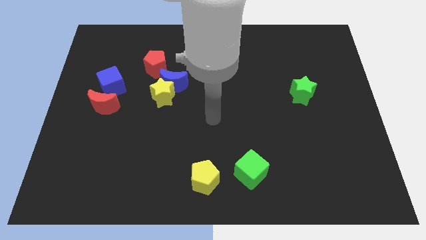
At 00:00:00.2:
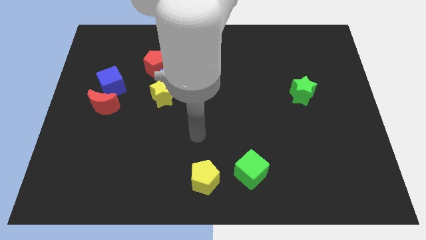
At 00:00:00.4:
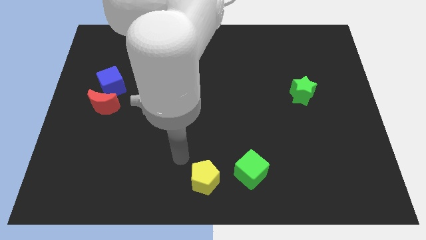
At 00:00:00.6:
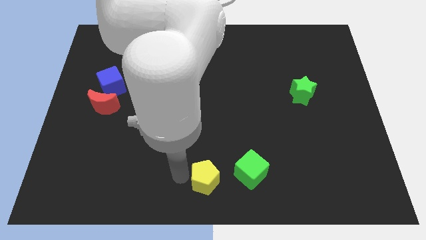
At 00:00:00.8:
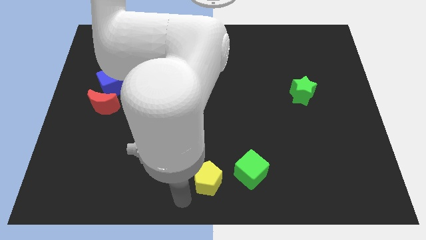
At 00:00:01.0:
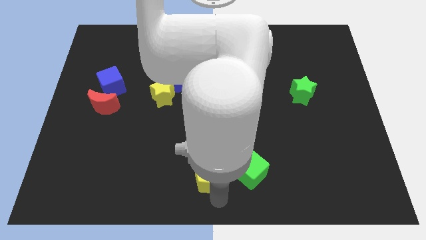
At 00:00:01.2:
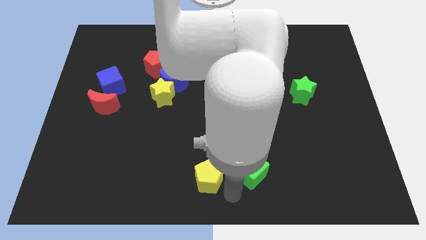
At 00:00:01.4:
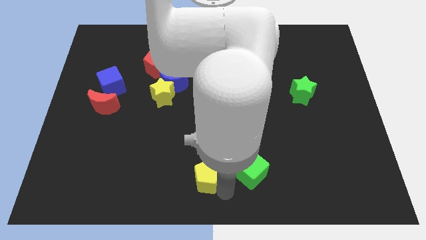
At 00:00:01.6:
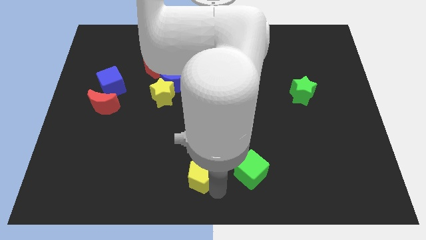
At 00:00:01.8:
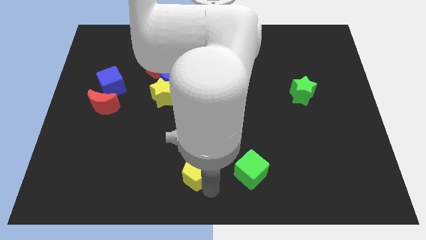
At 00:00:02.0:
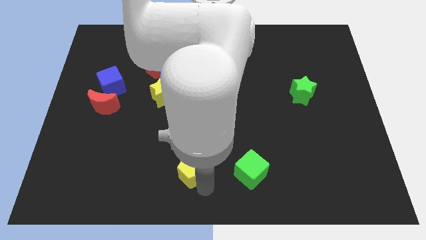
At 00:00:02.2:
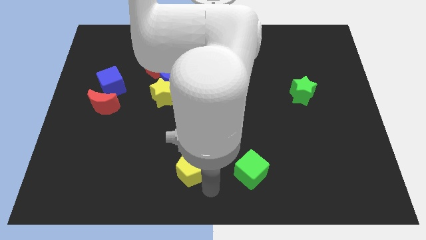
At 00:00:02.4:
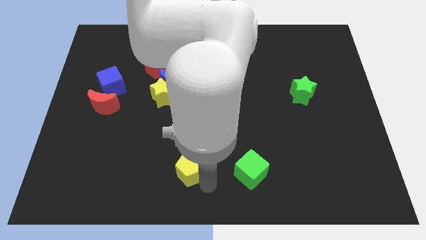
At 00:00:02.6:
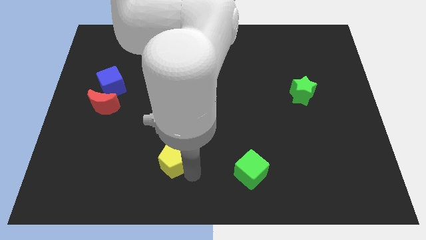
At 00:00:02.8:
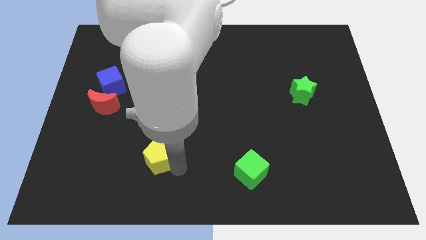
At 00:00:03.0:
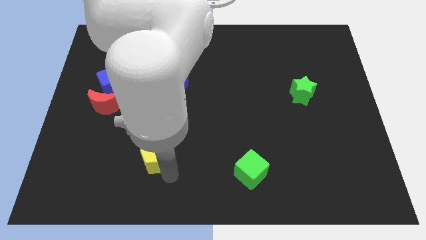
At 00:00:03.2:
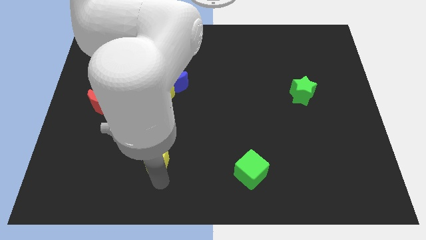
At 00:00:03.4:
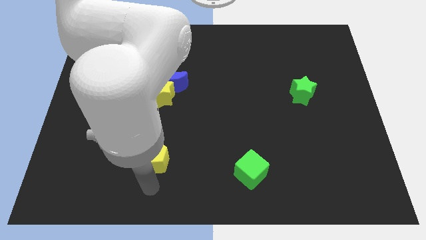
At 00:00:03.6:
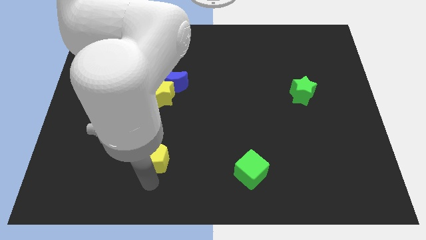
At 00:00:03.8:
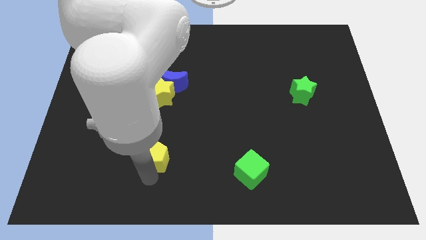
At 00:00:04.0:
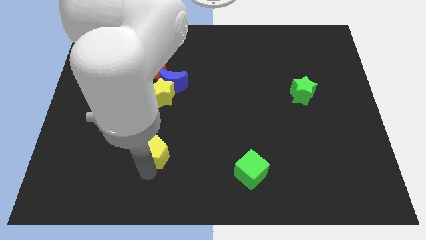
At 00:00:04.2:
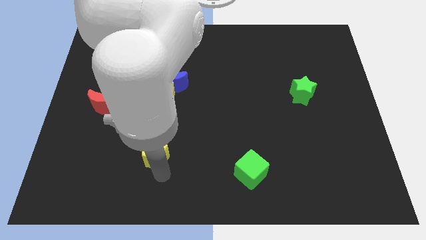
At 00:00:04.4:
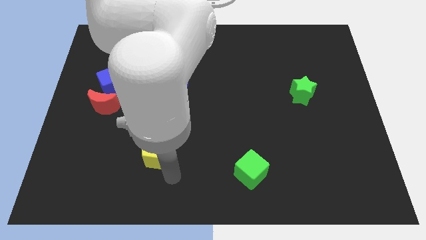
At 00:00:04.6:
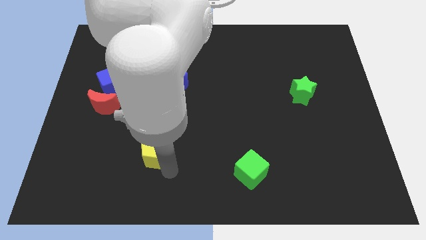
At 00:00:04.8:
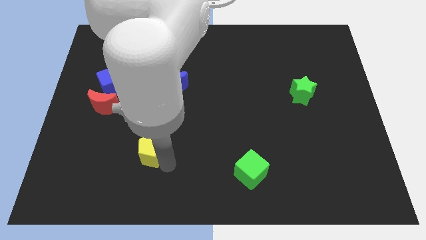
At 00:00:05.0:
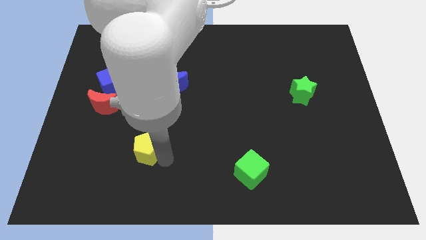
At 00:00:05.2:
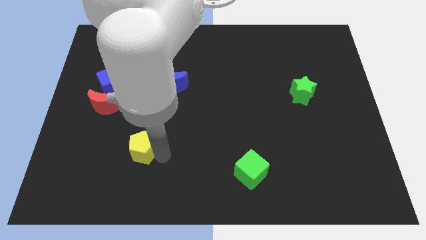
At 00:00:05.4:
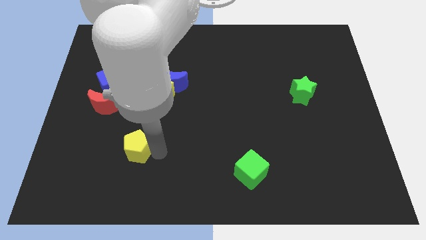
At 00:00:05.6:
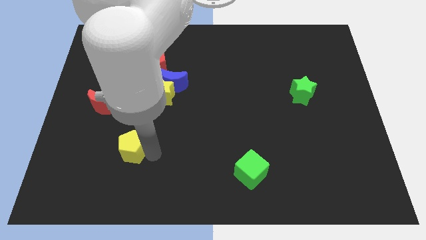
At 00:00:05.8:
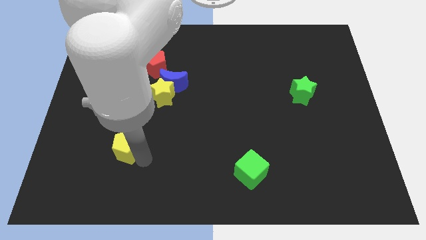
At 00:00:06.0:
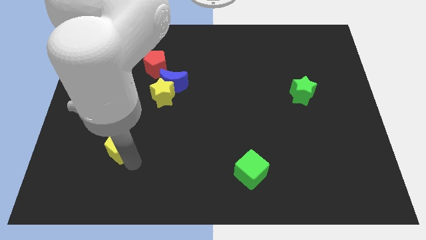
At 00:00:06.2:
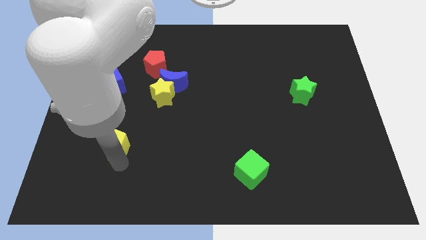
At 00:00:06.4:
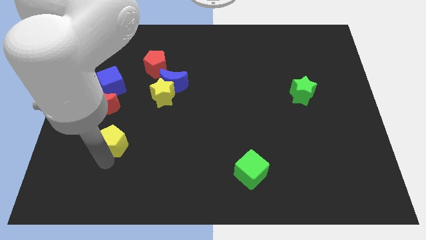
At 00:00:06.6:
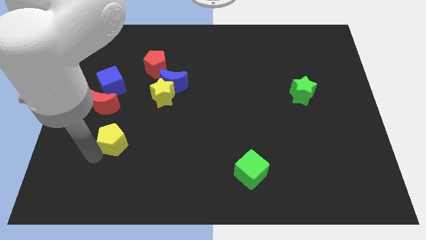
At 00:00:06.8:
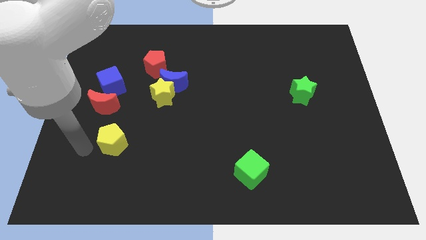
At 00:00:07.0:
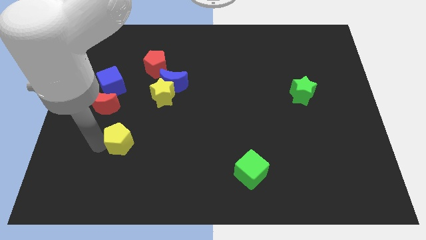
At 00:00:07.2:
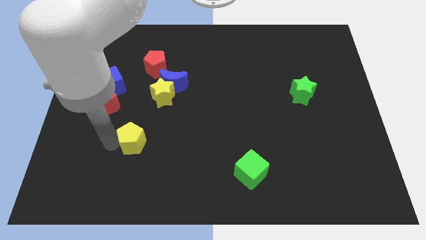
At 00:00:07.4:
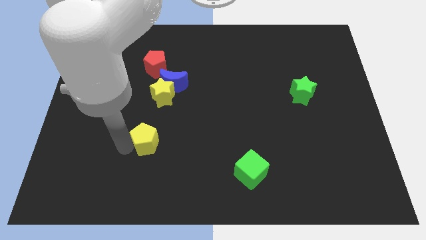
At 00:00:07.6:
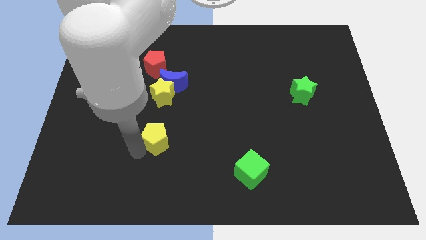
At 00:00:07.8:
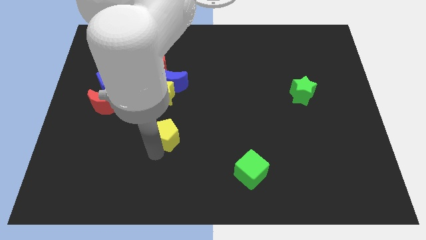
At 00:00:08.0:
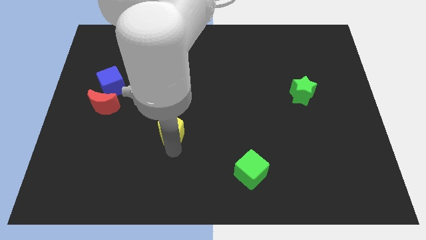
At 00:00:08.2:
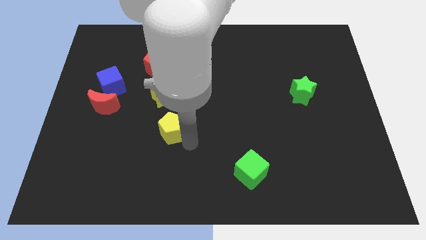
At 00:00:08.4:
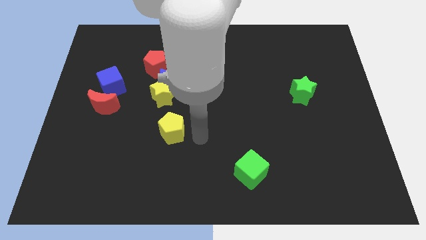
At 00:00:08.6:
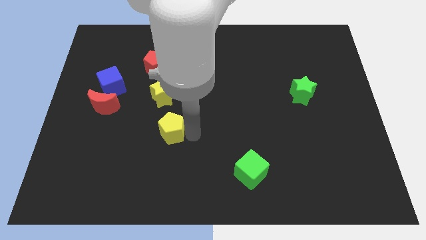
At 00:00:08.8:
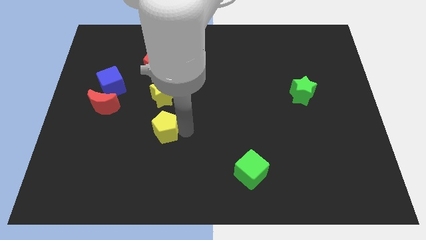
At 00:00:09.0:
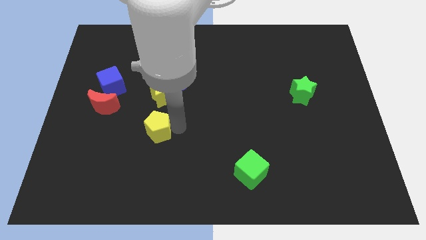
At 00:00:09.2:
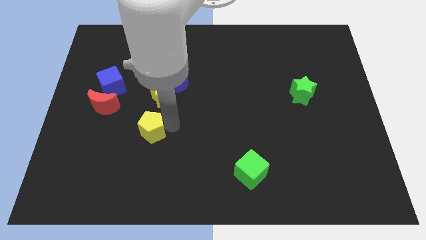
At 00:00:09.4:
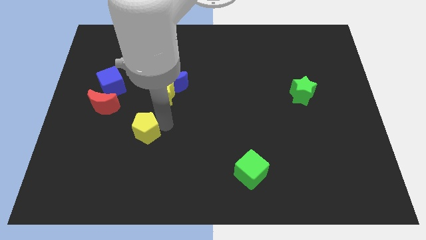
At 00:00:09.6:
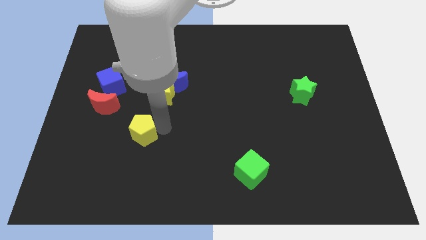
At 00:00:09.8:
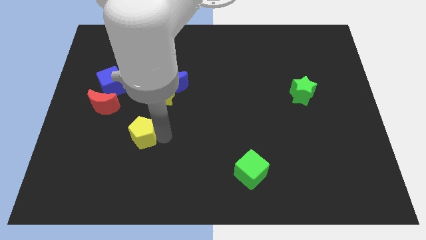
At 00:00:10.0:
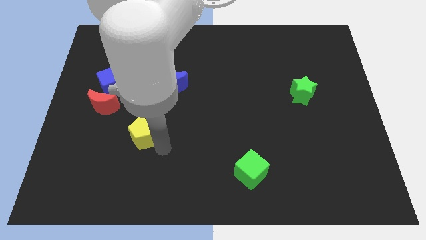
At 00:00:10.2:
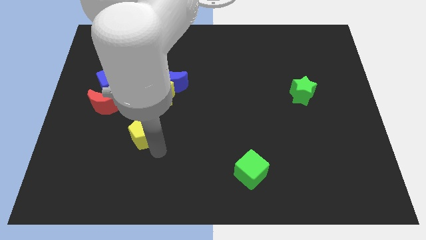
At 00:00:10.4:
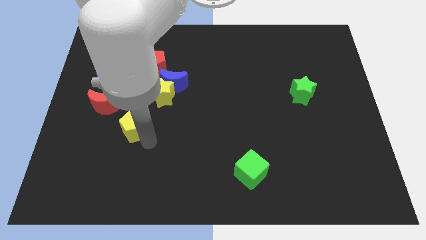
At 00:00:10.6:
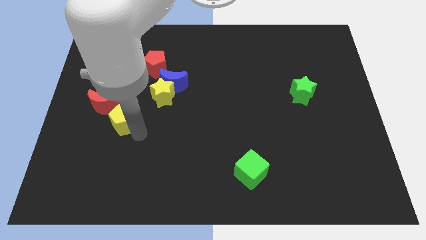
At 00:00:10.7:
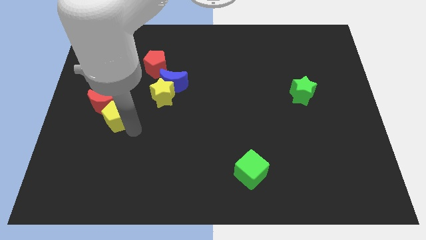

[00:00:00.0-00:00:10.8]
slide the yellow pentagon to the red moon

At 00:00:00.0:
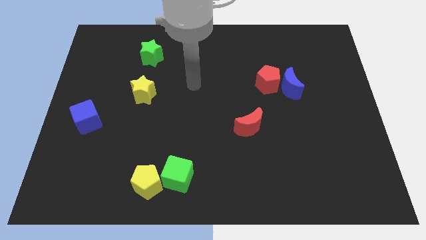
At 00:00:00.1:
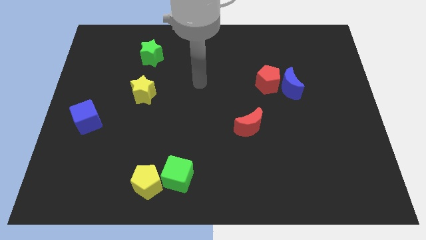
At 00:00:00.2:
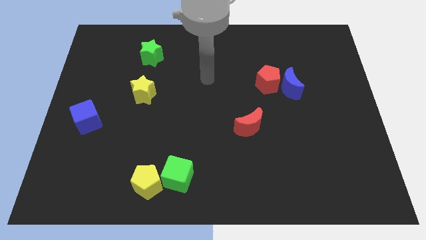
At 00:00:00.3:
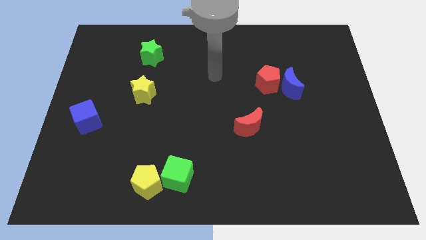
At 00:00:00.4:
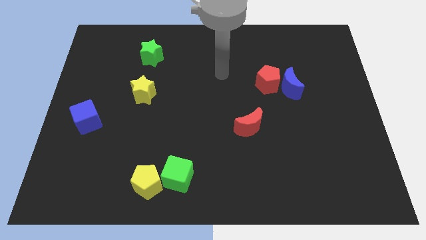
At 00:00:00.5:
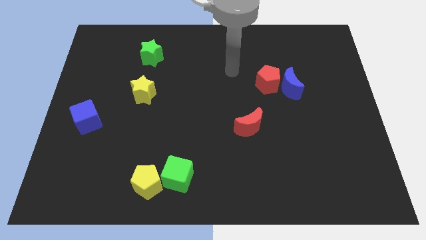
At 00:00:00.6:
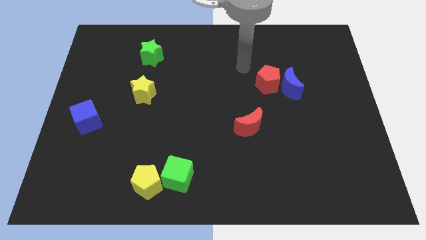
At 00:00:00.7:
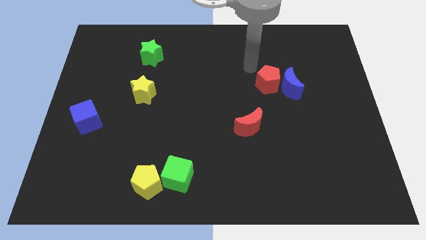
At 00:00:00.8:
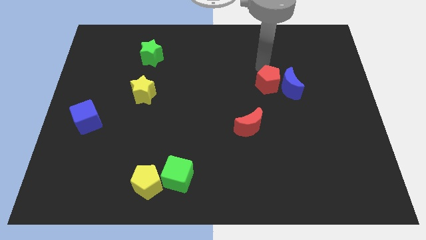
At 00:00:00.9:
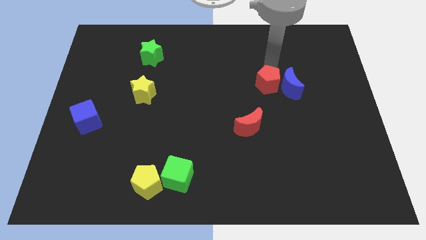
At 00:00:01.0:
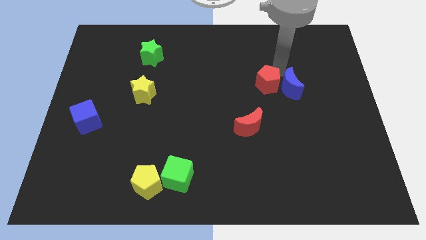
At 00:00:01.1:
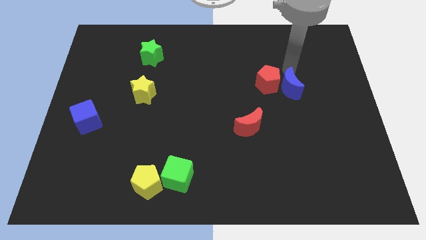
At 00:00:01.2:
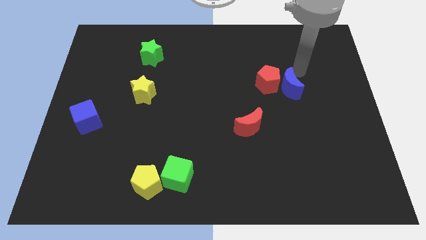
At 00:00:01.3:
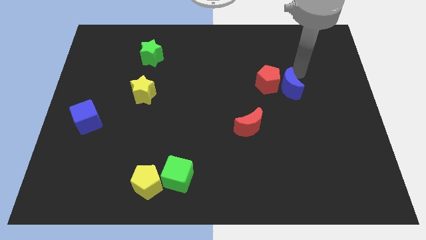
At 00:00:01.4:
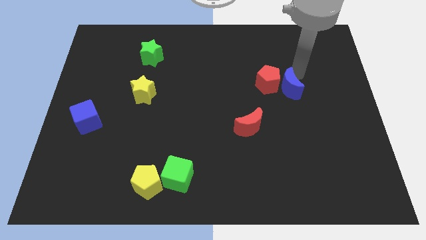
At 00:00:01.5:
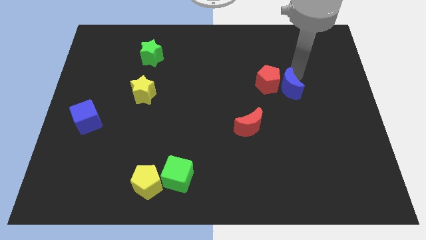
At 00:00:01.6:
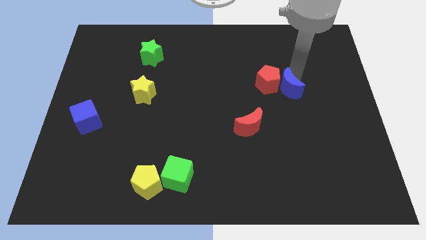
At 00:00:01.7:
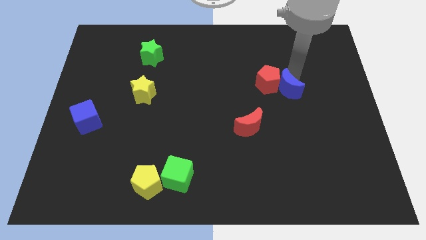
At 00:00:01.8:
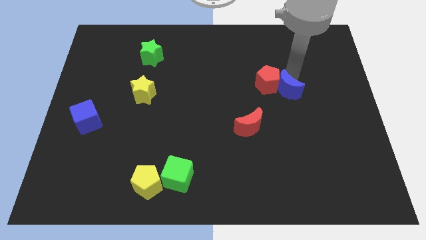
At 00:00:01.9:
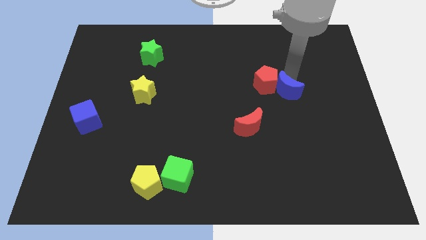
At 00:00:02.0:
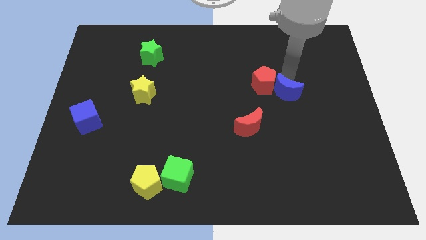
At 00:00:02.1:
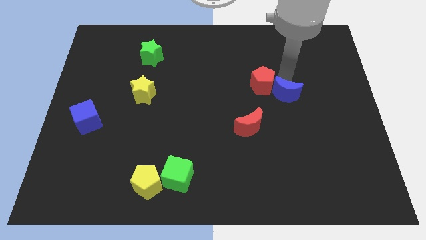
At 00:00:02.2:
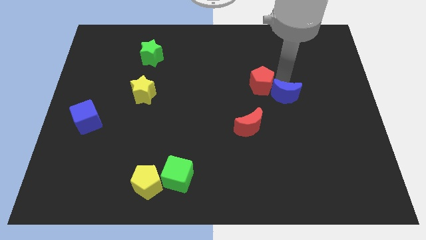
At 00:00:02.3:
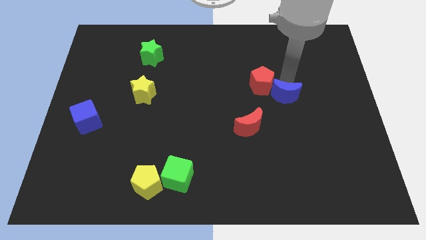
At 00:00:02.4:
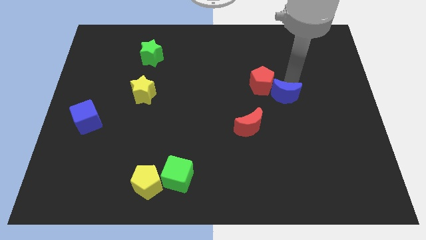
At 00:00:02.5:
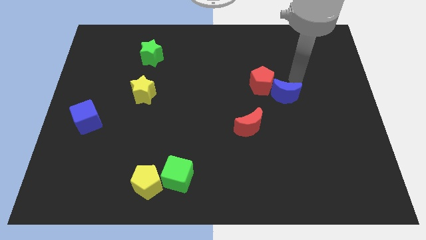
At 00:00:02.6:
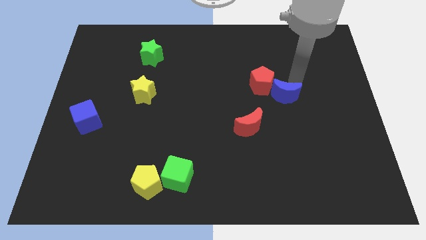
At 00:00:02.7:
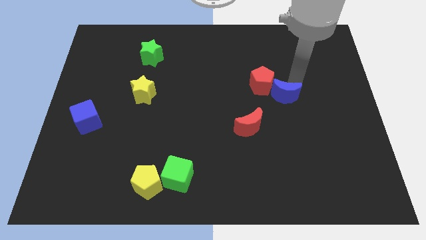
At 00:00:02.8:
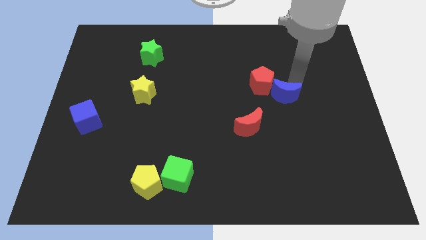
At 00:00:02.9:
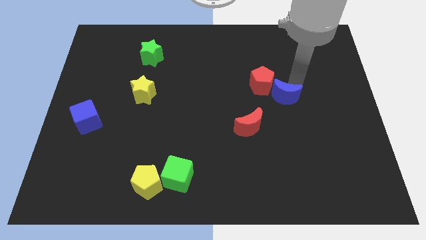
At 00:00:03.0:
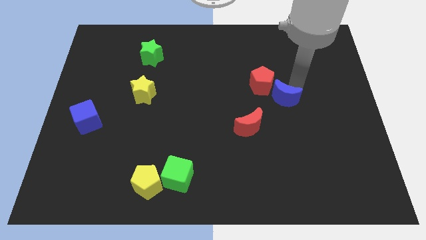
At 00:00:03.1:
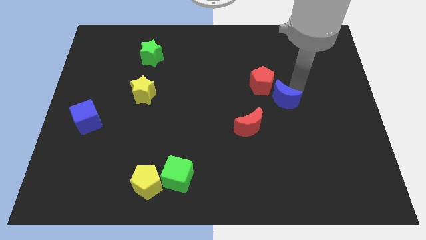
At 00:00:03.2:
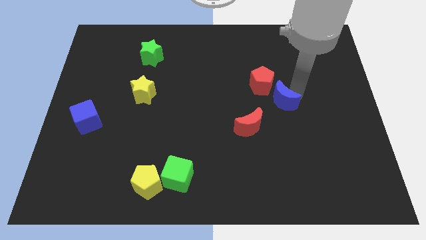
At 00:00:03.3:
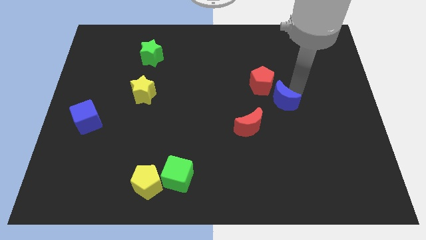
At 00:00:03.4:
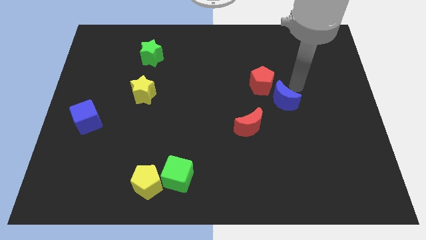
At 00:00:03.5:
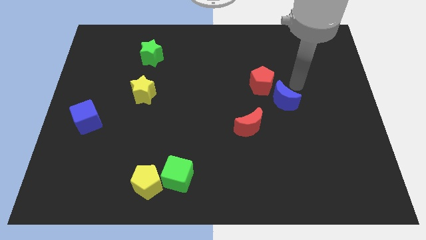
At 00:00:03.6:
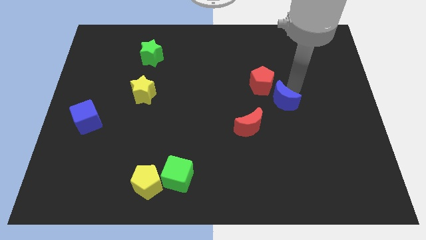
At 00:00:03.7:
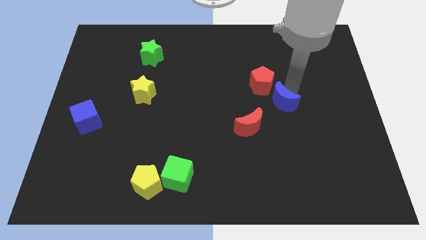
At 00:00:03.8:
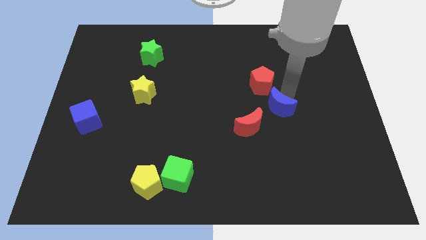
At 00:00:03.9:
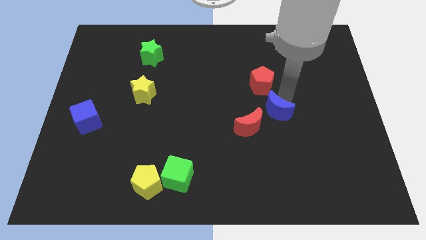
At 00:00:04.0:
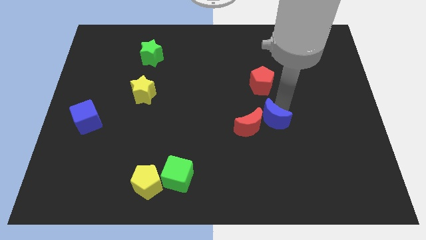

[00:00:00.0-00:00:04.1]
put the blue moon towards the red moon
